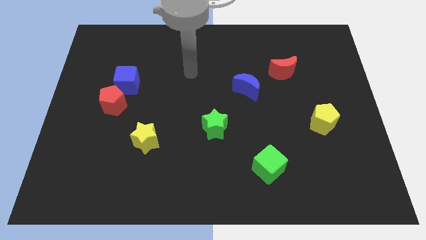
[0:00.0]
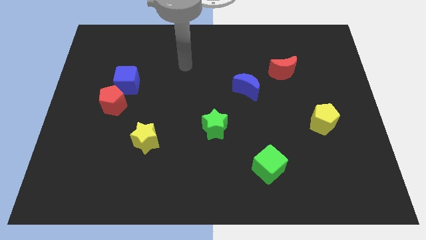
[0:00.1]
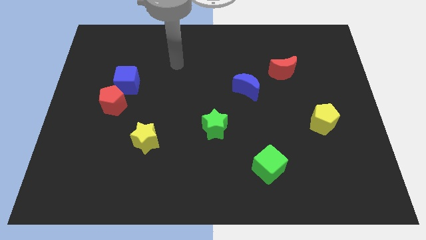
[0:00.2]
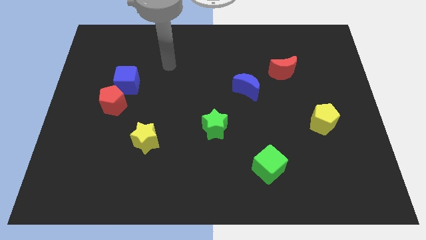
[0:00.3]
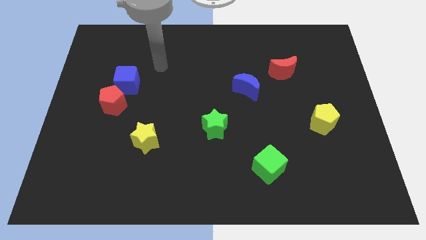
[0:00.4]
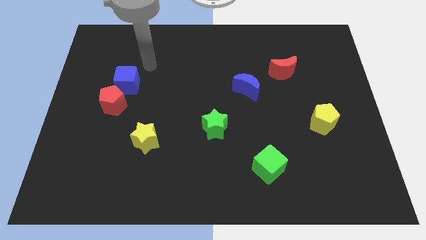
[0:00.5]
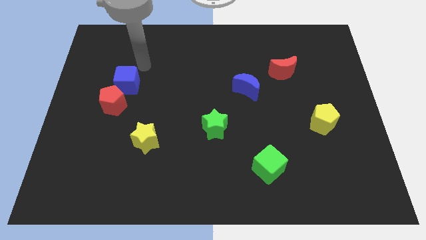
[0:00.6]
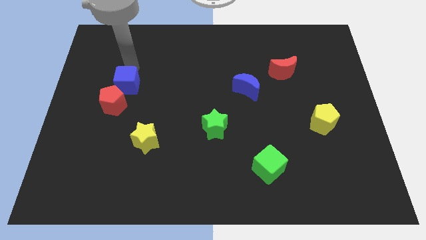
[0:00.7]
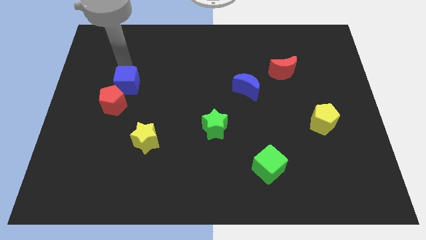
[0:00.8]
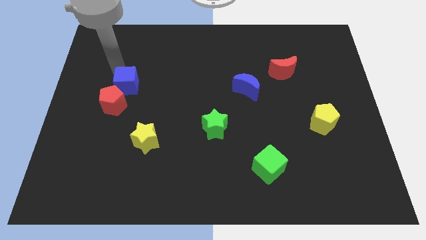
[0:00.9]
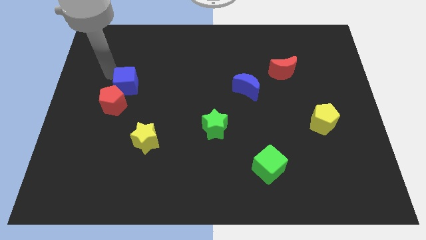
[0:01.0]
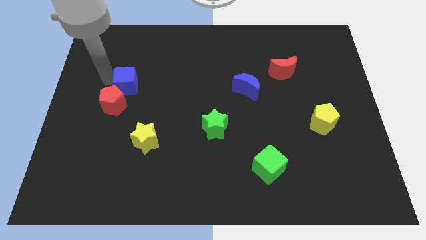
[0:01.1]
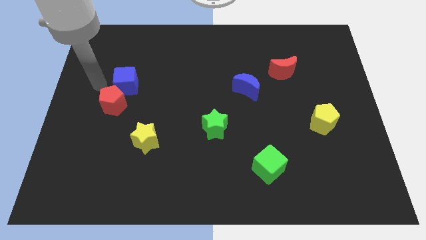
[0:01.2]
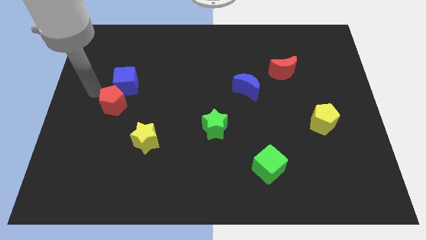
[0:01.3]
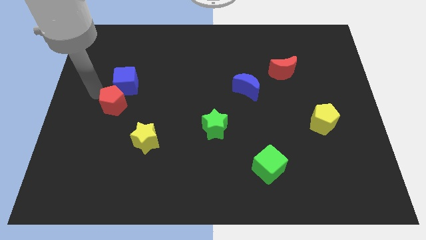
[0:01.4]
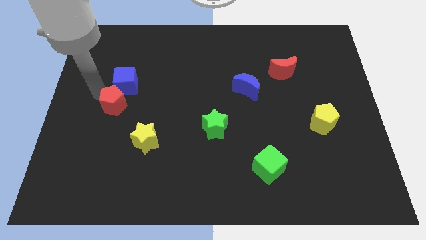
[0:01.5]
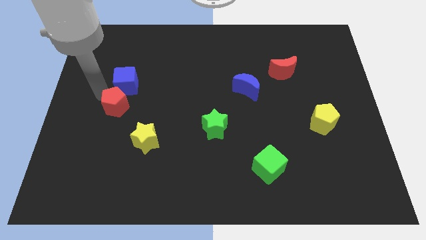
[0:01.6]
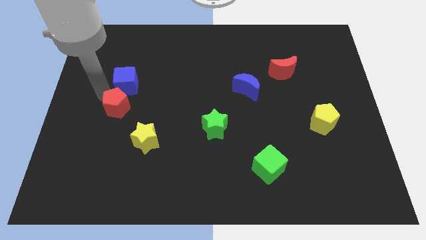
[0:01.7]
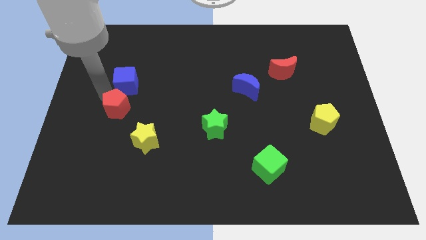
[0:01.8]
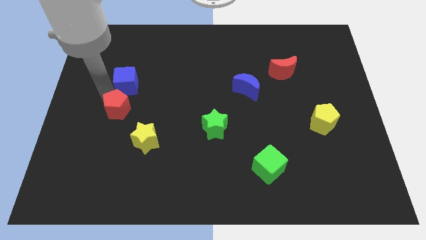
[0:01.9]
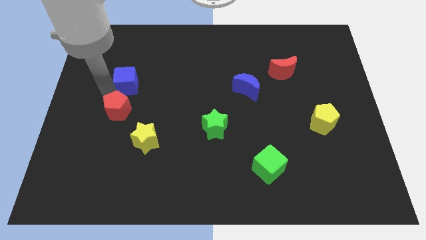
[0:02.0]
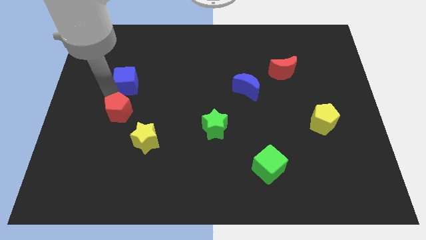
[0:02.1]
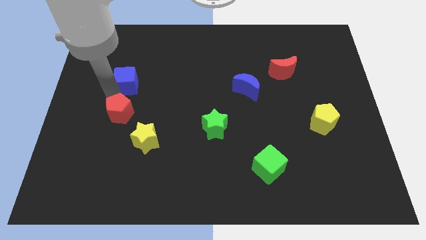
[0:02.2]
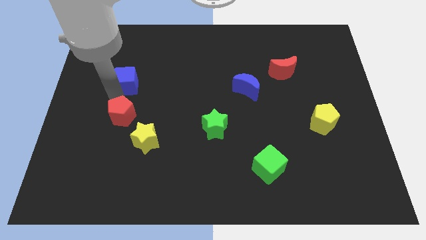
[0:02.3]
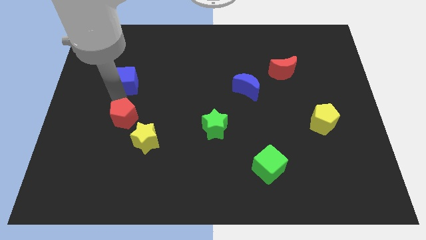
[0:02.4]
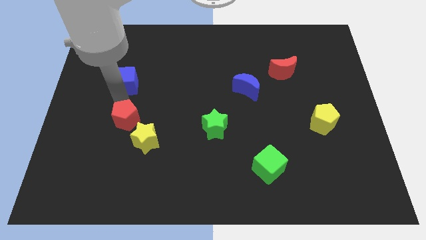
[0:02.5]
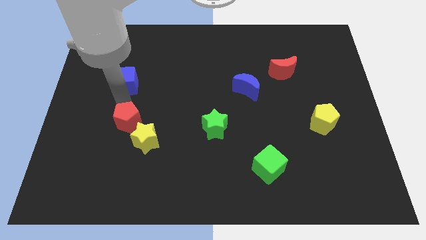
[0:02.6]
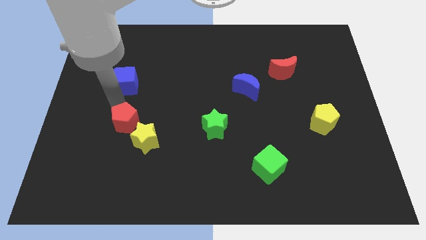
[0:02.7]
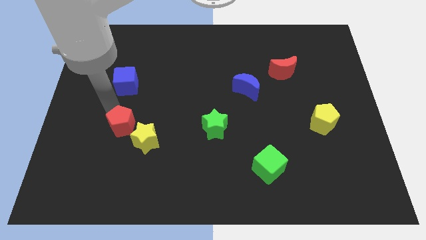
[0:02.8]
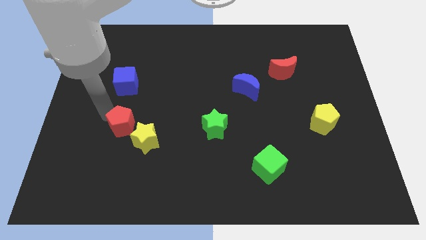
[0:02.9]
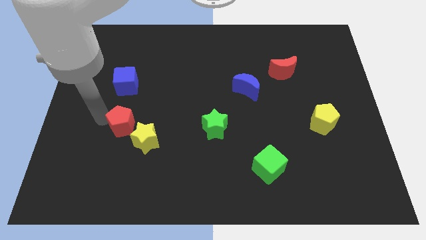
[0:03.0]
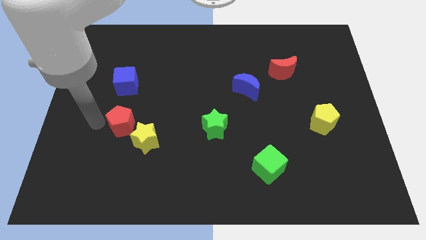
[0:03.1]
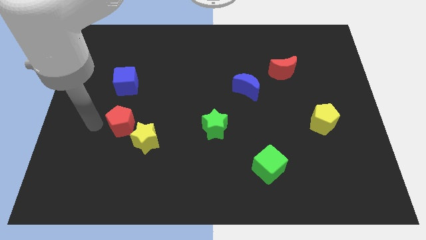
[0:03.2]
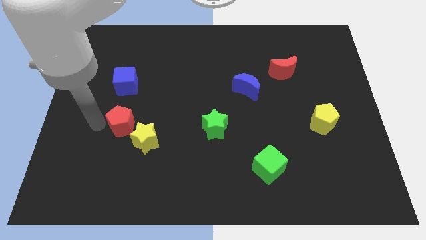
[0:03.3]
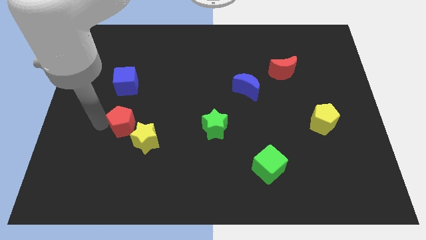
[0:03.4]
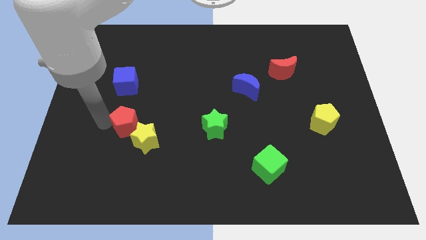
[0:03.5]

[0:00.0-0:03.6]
push the red pentagon a little bit downwards and then right

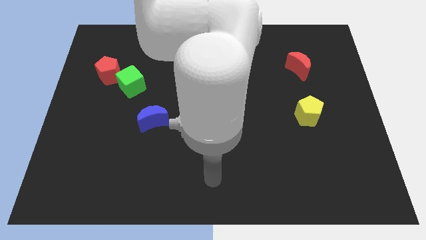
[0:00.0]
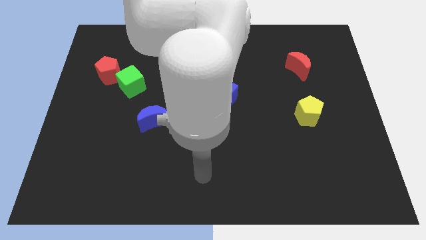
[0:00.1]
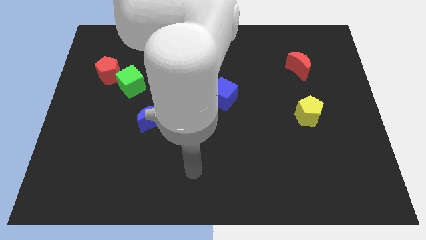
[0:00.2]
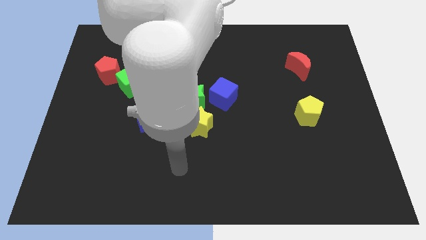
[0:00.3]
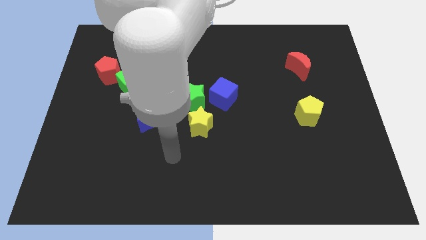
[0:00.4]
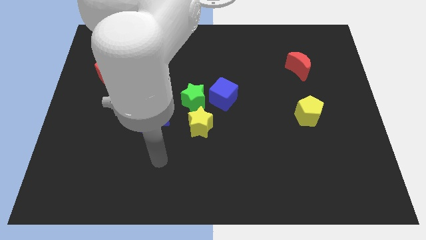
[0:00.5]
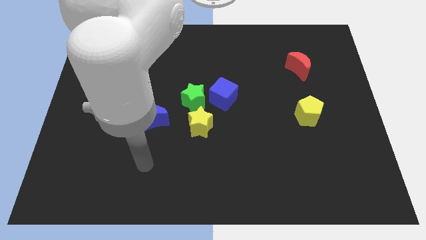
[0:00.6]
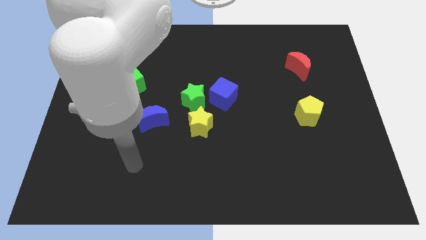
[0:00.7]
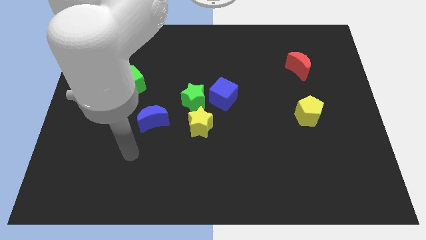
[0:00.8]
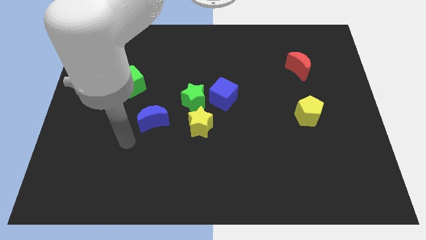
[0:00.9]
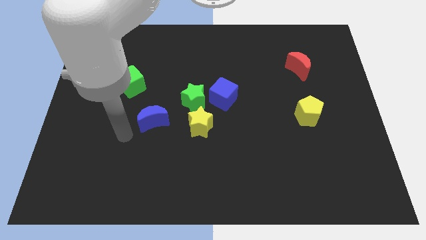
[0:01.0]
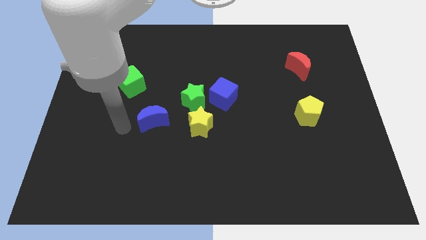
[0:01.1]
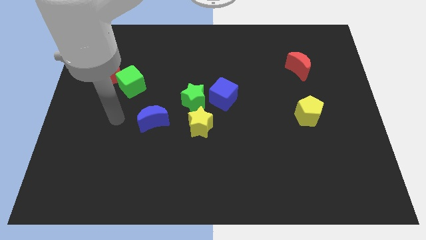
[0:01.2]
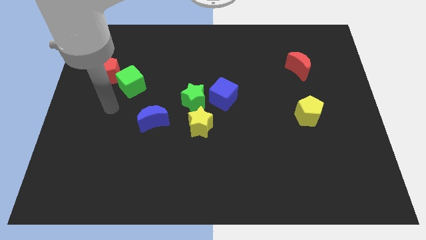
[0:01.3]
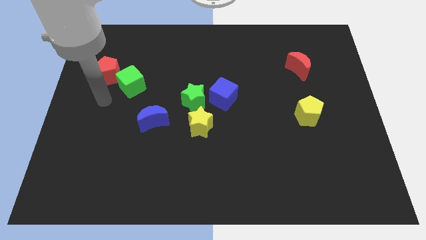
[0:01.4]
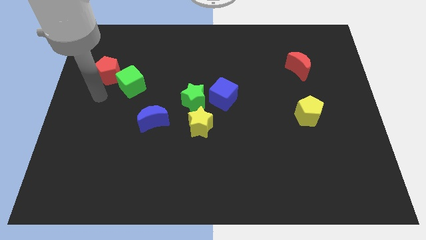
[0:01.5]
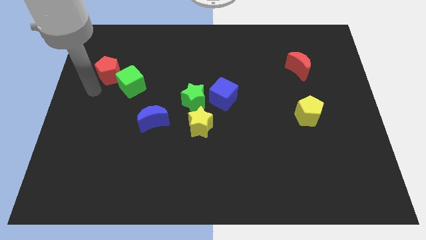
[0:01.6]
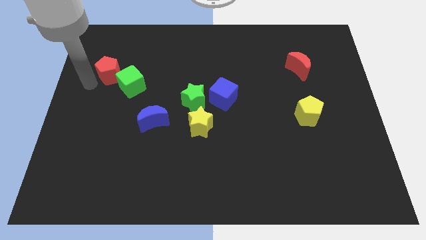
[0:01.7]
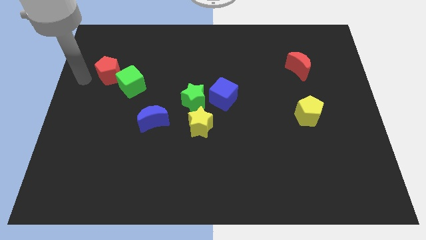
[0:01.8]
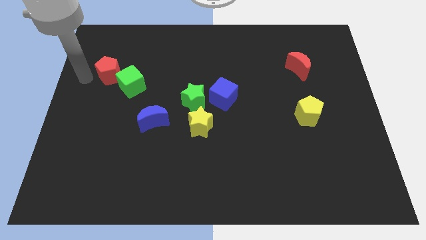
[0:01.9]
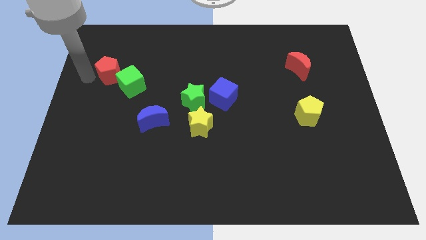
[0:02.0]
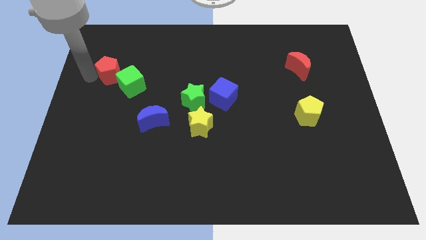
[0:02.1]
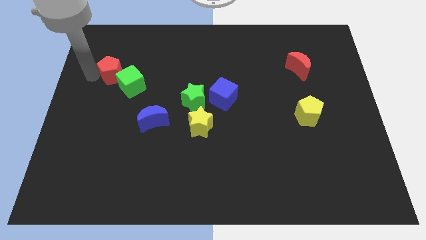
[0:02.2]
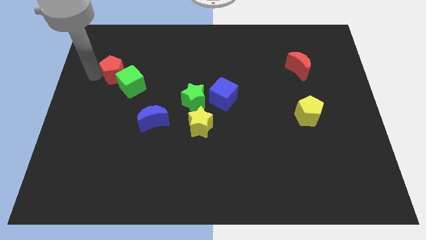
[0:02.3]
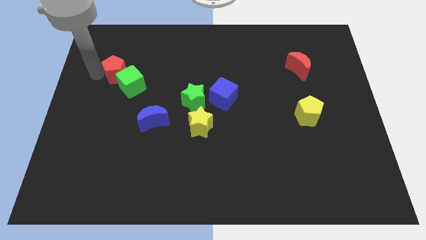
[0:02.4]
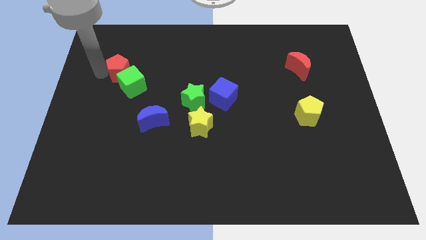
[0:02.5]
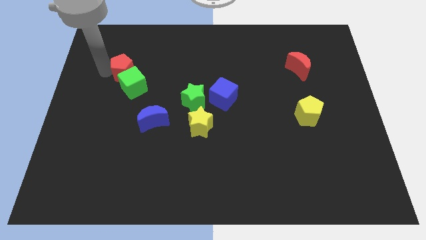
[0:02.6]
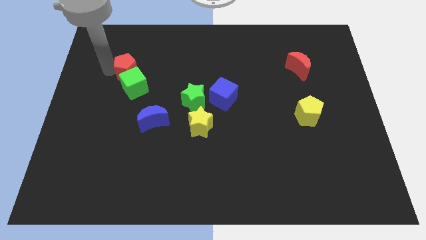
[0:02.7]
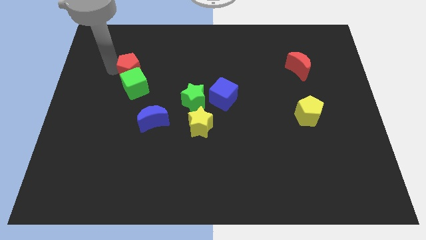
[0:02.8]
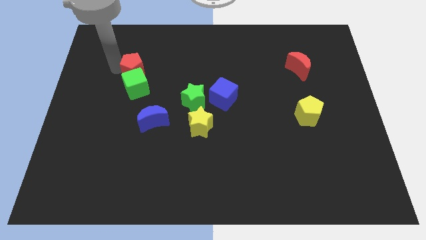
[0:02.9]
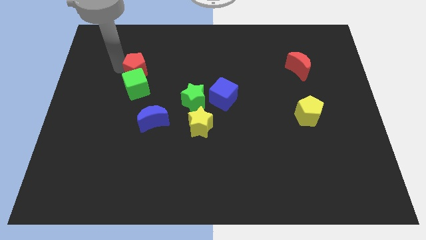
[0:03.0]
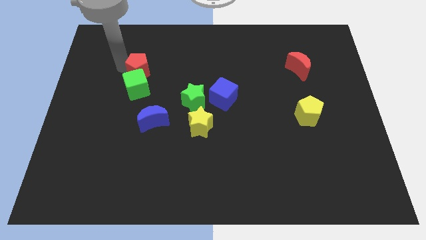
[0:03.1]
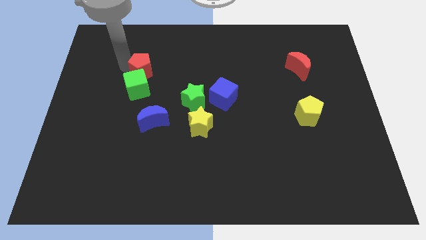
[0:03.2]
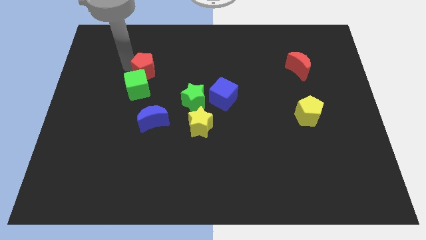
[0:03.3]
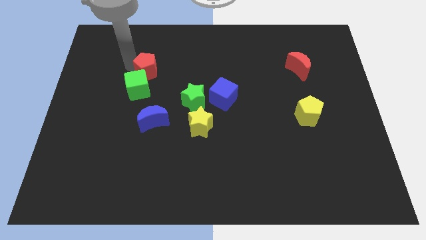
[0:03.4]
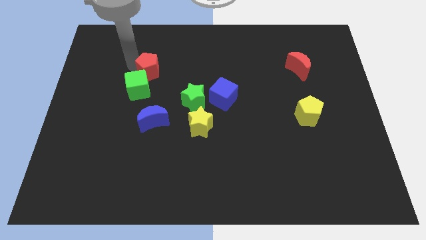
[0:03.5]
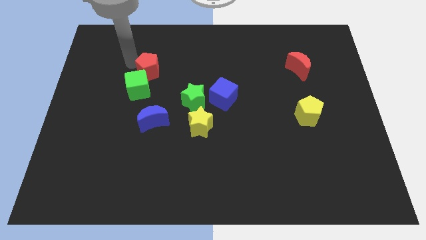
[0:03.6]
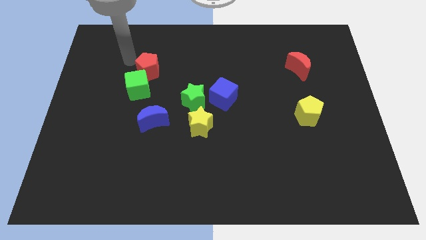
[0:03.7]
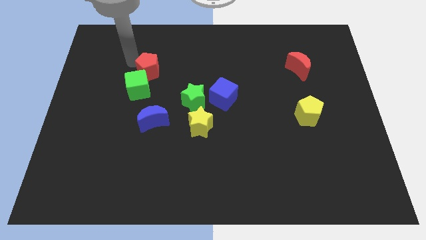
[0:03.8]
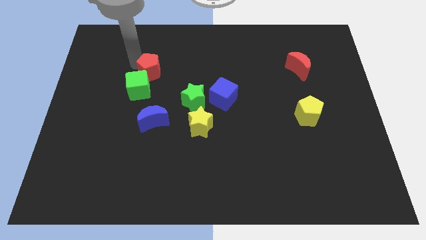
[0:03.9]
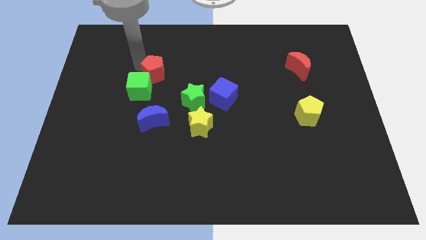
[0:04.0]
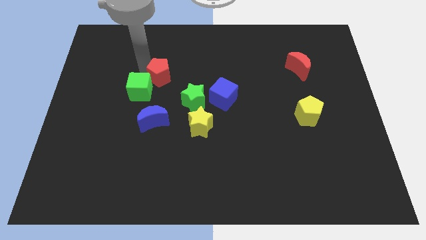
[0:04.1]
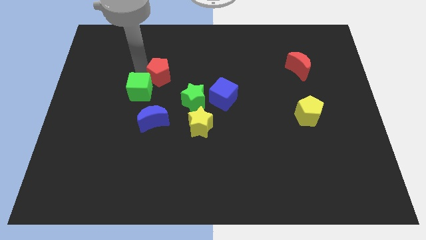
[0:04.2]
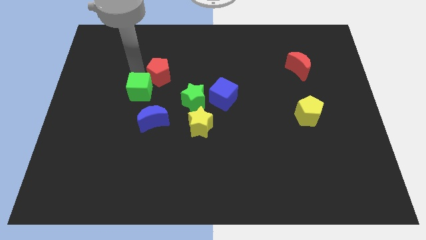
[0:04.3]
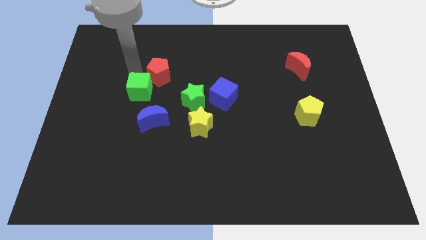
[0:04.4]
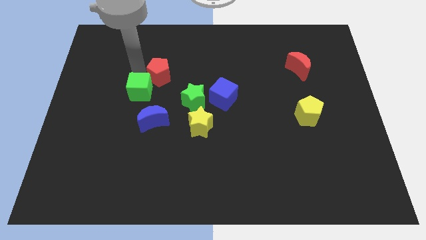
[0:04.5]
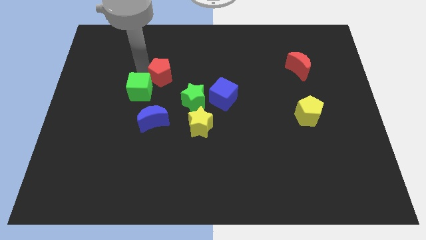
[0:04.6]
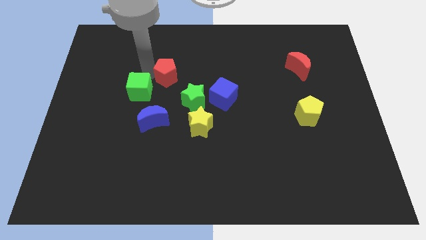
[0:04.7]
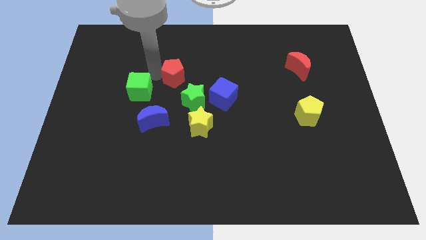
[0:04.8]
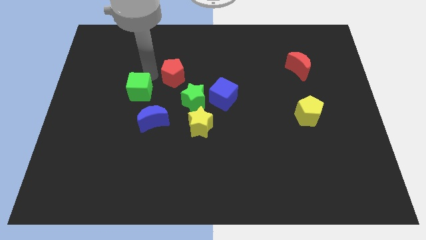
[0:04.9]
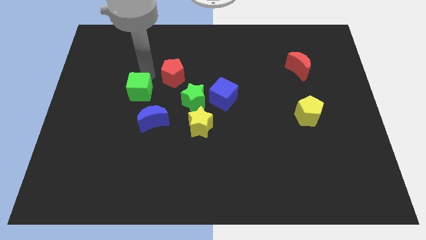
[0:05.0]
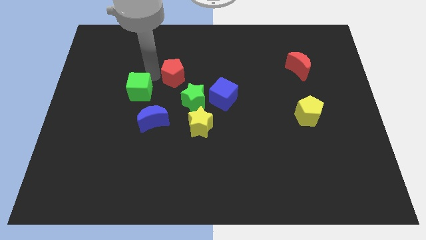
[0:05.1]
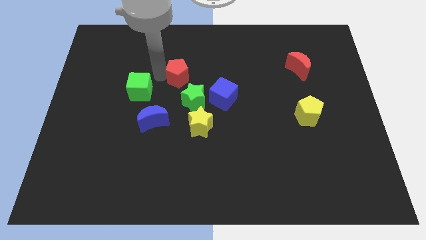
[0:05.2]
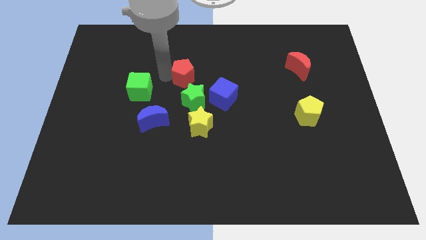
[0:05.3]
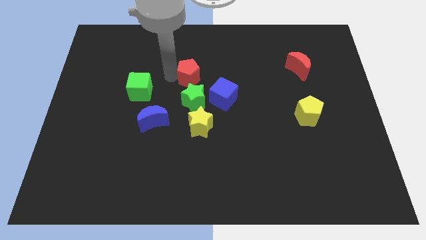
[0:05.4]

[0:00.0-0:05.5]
slide the red pentagon right
